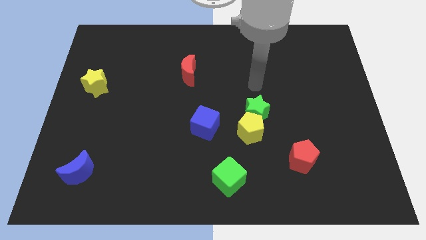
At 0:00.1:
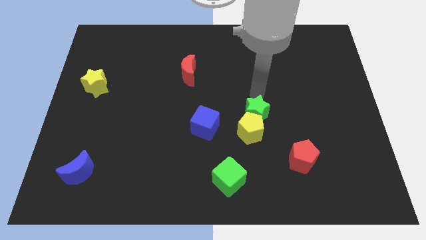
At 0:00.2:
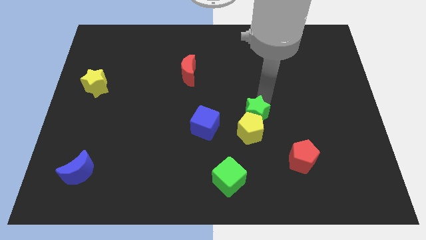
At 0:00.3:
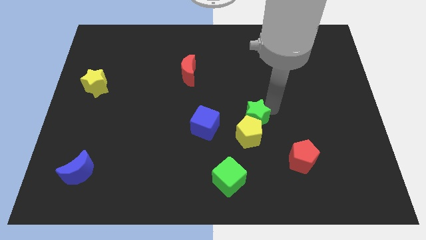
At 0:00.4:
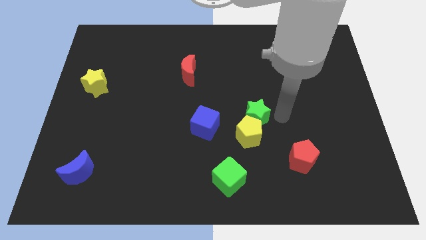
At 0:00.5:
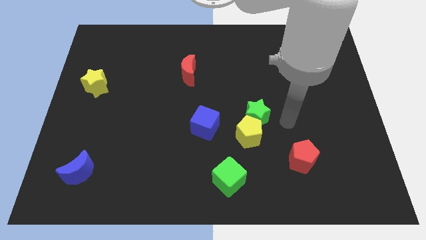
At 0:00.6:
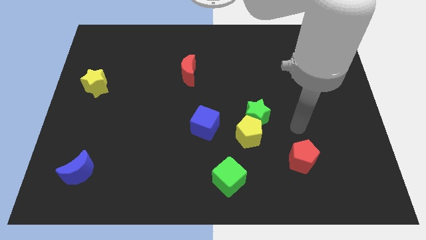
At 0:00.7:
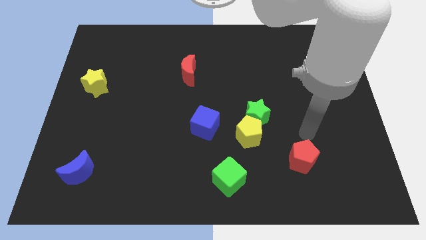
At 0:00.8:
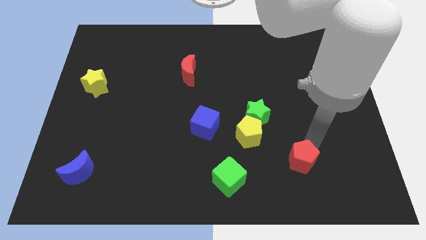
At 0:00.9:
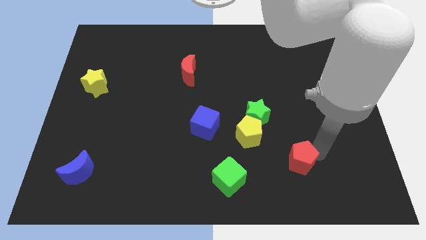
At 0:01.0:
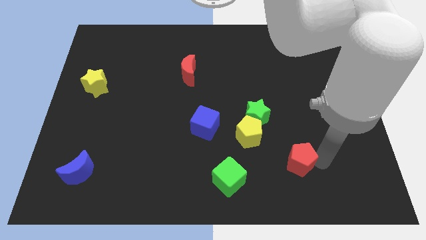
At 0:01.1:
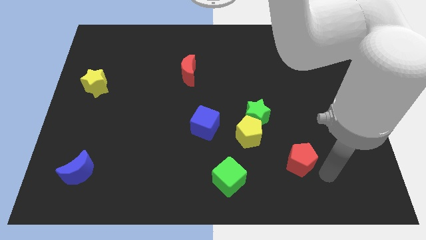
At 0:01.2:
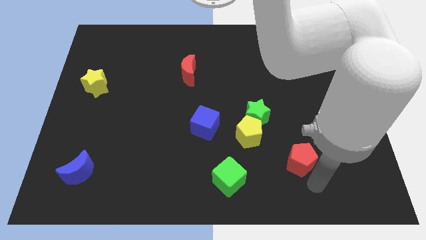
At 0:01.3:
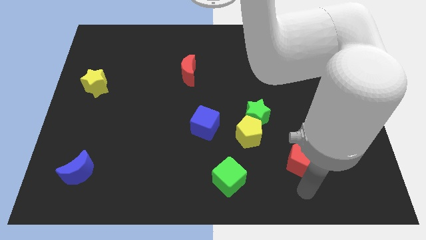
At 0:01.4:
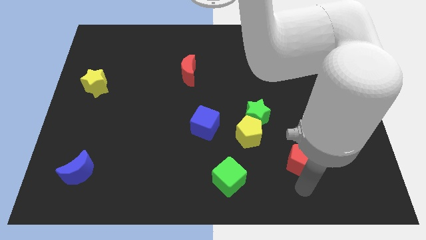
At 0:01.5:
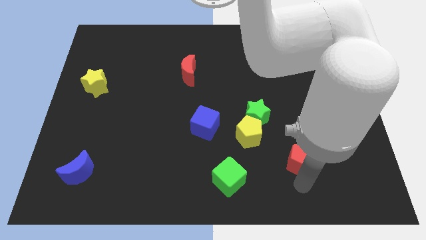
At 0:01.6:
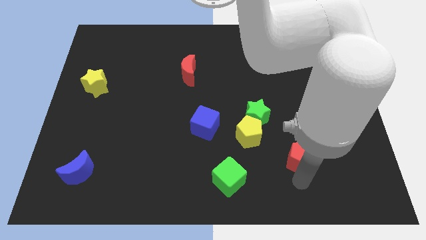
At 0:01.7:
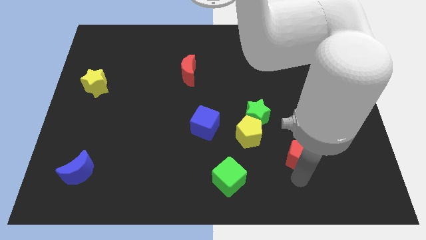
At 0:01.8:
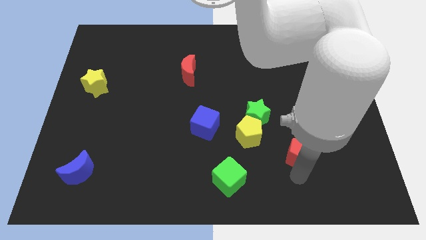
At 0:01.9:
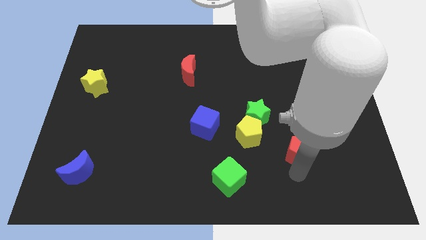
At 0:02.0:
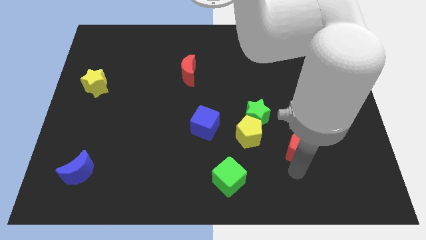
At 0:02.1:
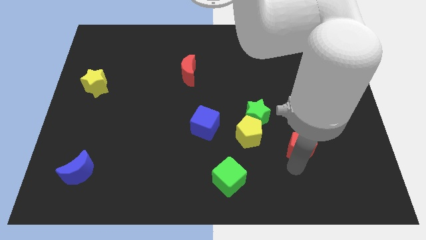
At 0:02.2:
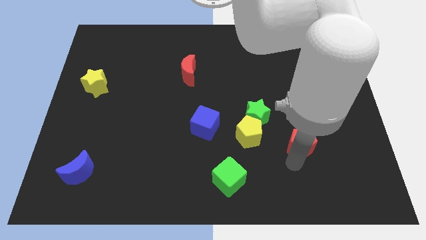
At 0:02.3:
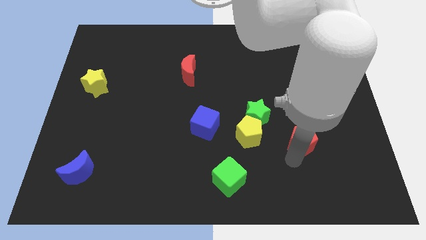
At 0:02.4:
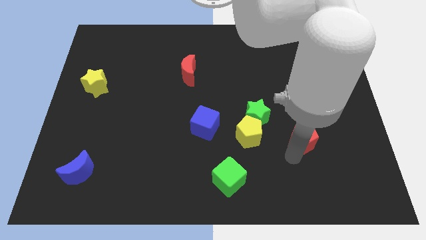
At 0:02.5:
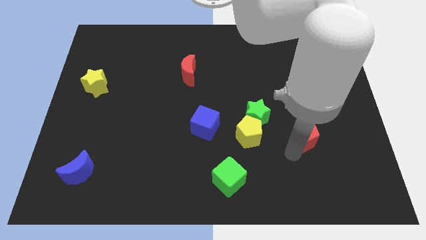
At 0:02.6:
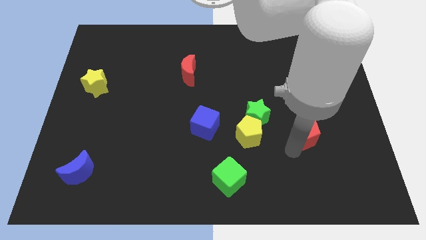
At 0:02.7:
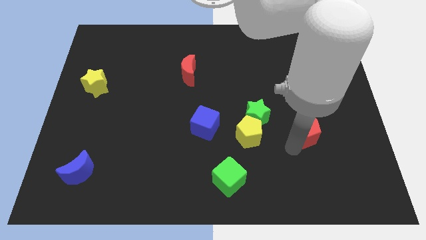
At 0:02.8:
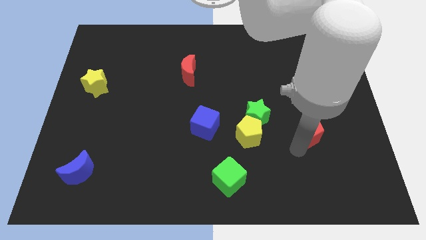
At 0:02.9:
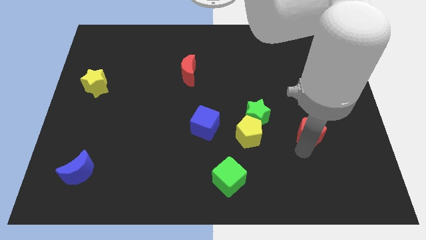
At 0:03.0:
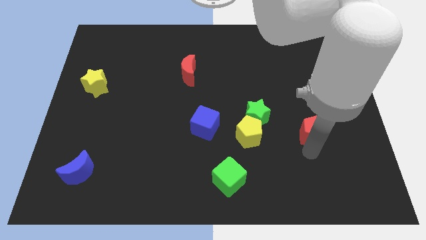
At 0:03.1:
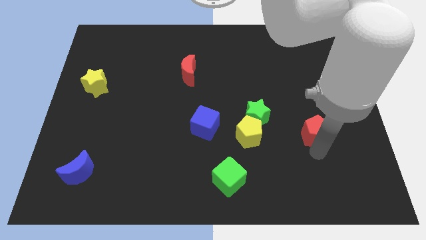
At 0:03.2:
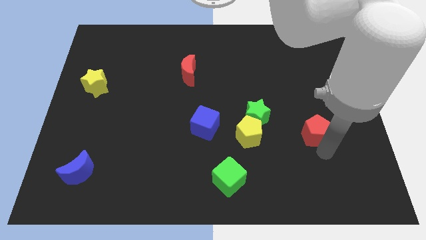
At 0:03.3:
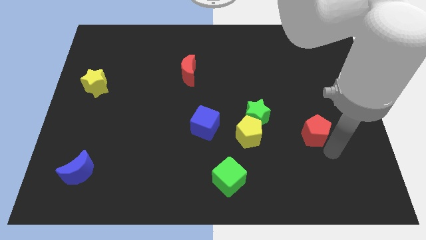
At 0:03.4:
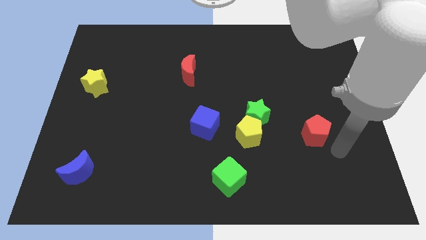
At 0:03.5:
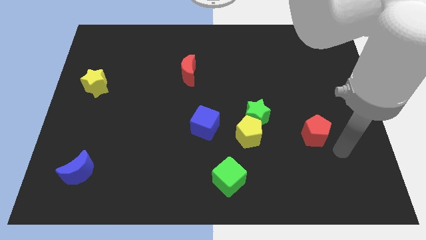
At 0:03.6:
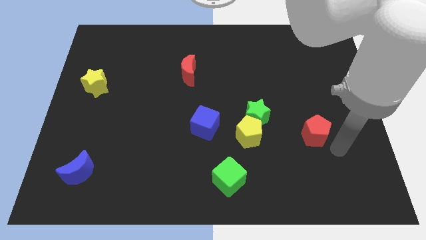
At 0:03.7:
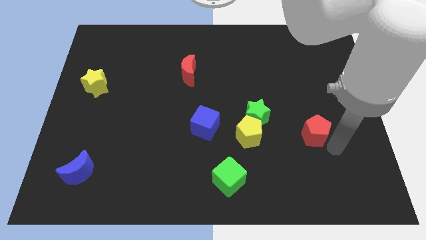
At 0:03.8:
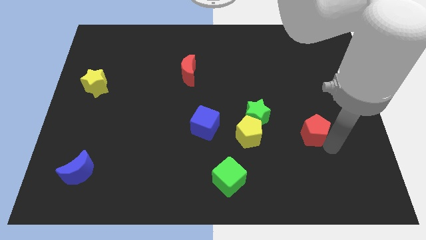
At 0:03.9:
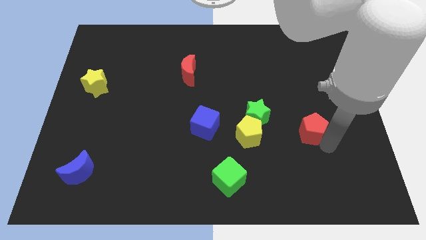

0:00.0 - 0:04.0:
move the red pentagon slightly up

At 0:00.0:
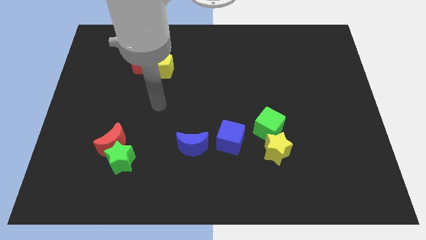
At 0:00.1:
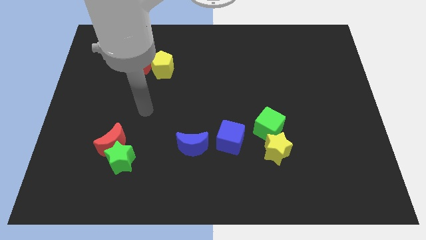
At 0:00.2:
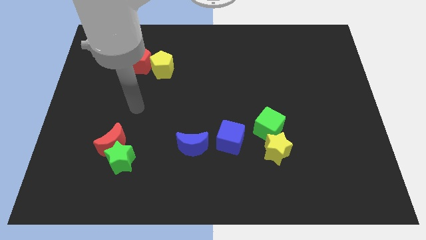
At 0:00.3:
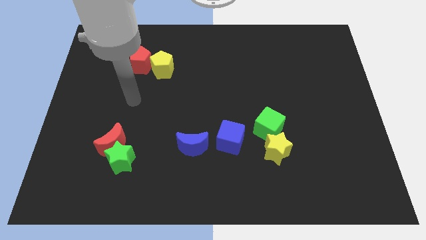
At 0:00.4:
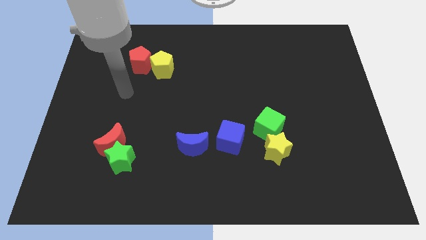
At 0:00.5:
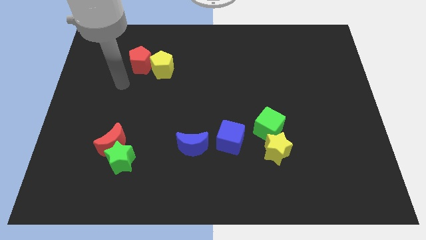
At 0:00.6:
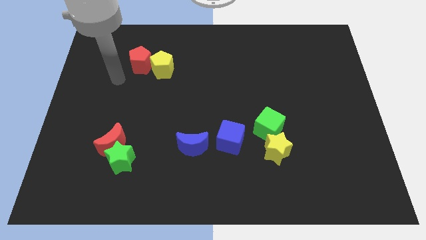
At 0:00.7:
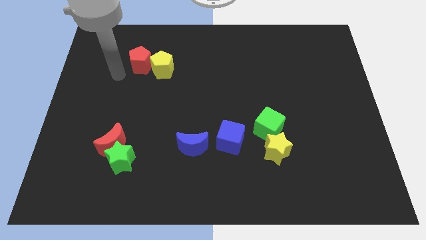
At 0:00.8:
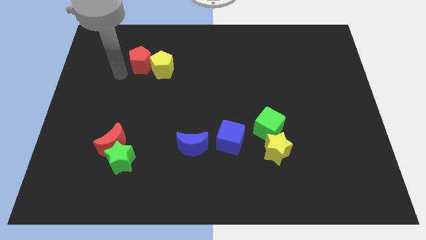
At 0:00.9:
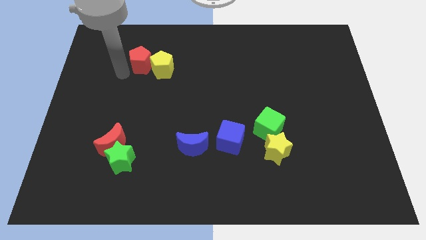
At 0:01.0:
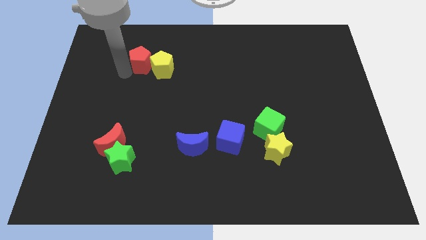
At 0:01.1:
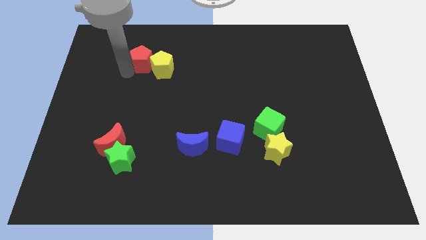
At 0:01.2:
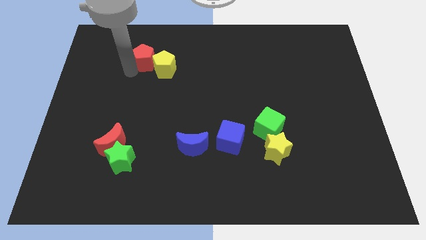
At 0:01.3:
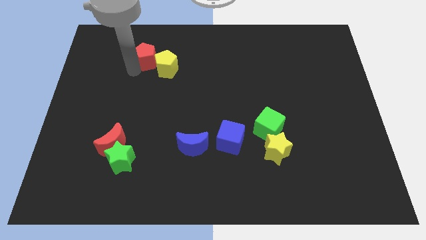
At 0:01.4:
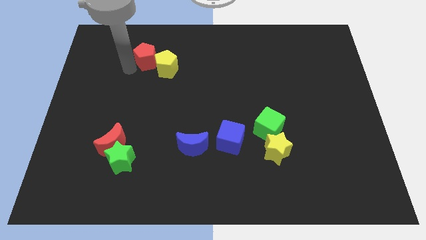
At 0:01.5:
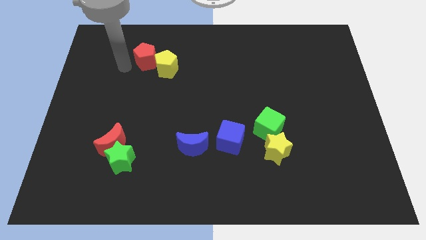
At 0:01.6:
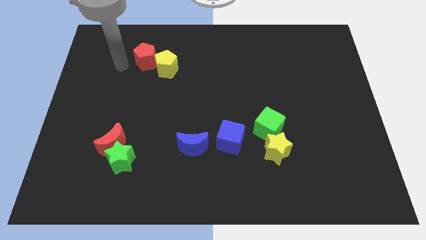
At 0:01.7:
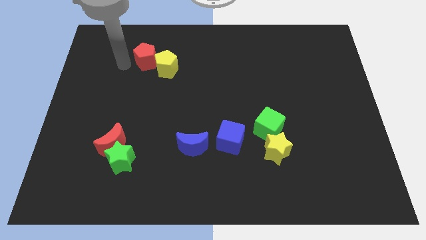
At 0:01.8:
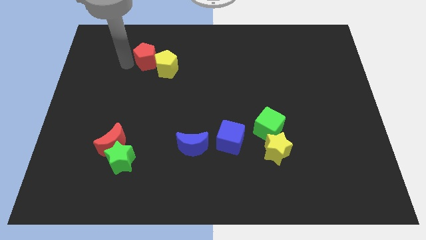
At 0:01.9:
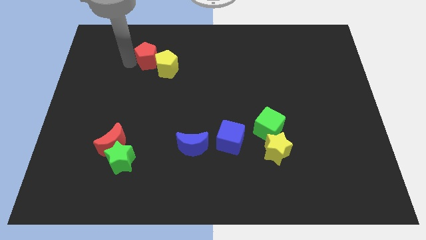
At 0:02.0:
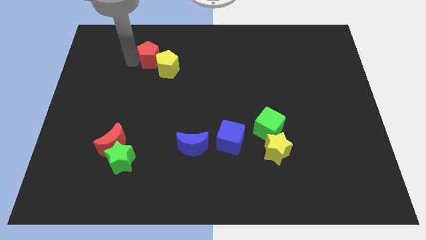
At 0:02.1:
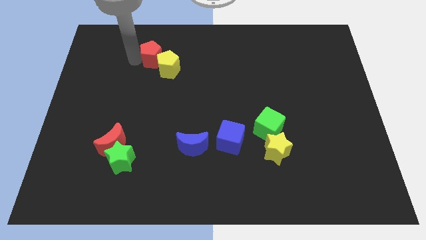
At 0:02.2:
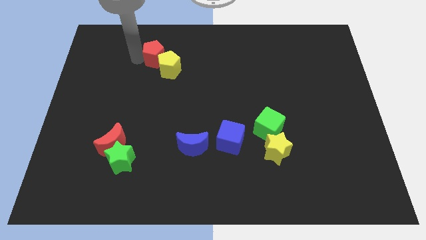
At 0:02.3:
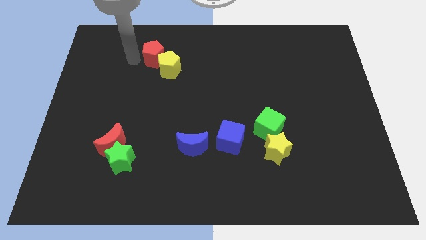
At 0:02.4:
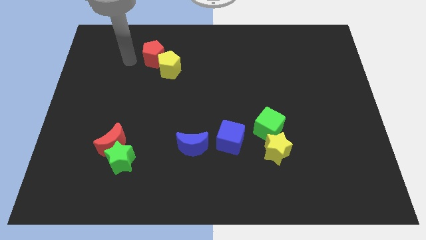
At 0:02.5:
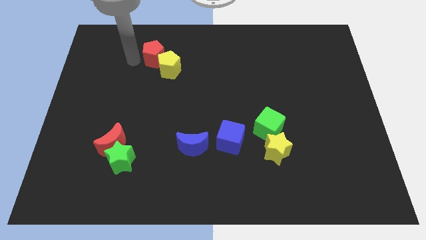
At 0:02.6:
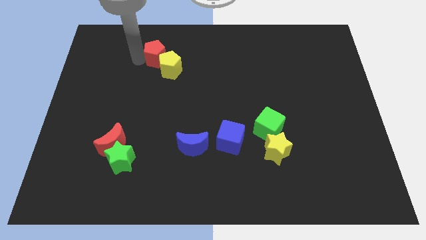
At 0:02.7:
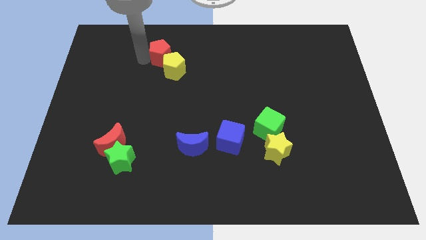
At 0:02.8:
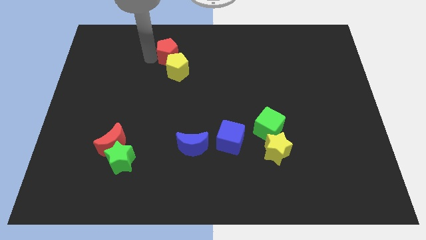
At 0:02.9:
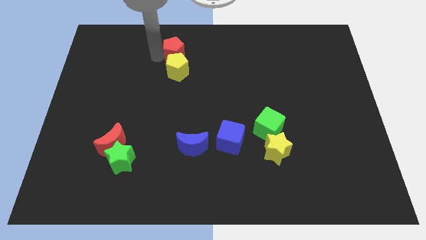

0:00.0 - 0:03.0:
slightly move the red pentagon right

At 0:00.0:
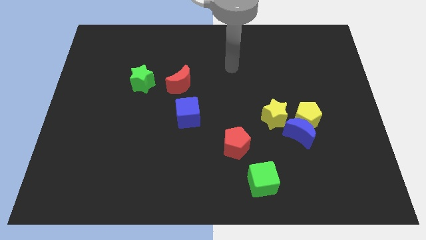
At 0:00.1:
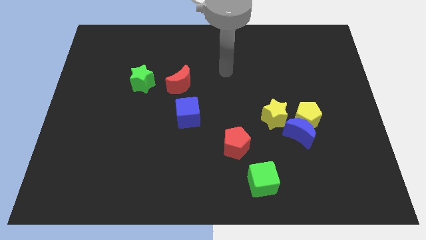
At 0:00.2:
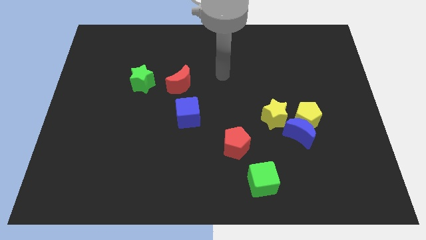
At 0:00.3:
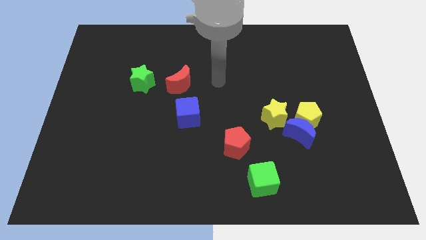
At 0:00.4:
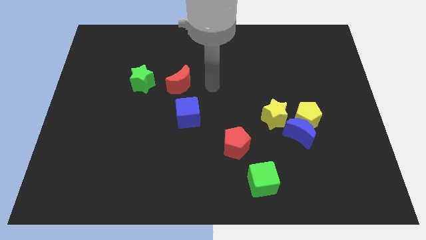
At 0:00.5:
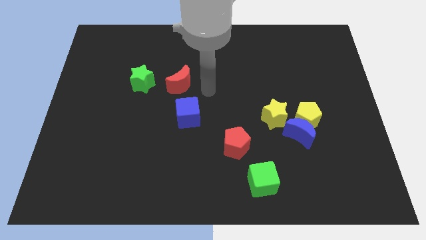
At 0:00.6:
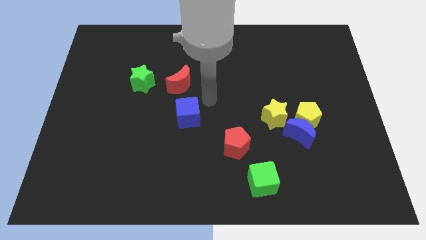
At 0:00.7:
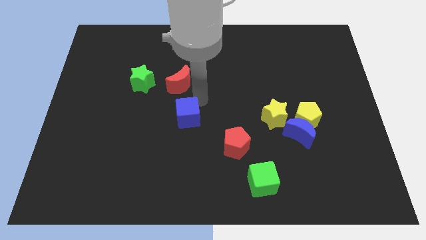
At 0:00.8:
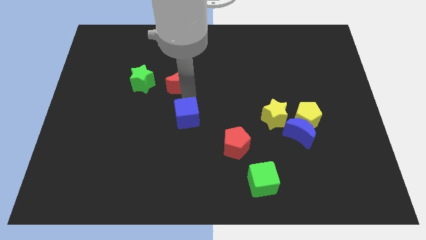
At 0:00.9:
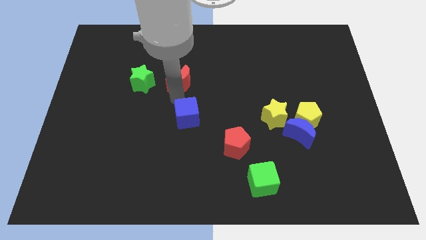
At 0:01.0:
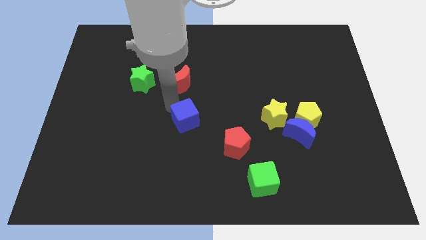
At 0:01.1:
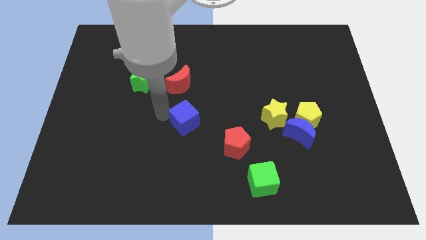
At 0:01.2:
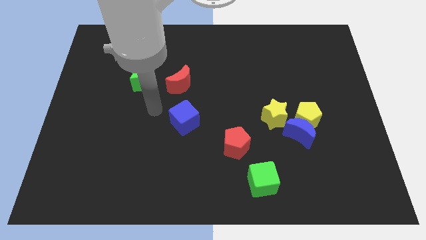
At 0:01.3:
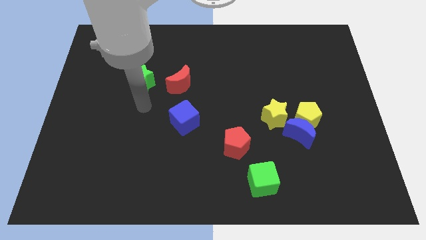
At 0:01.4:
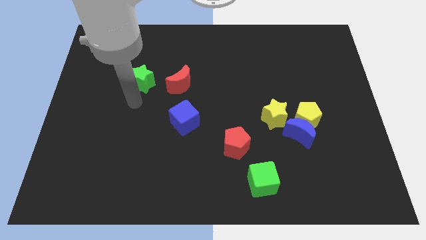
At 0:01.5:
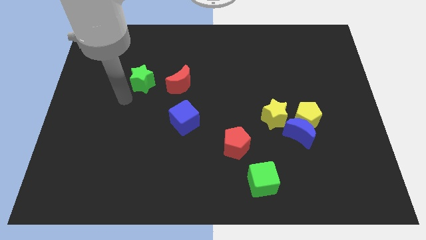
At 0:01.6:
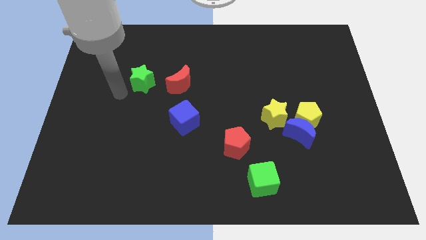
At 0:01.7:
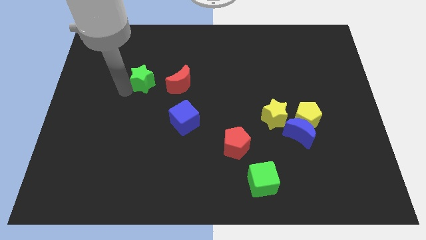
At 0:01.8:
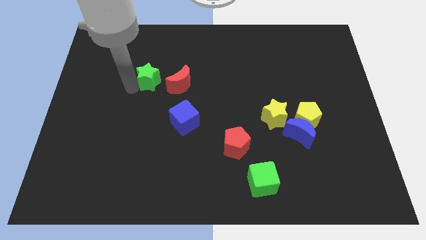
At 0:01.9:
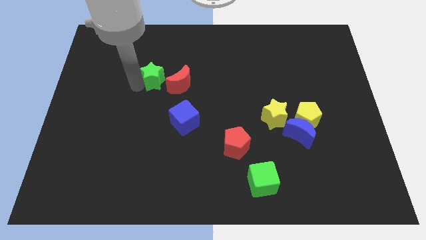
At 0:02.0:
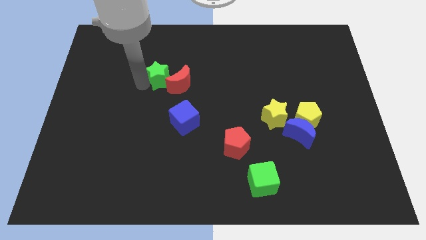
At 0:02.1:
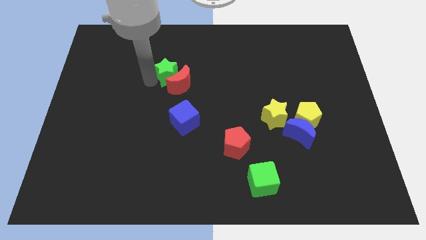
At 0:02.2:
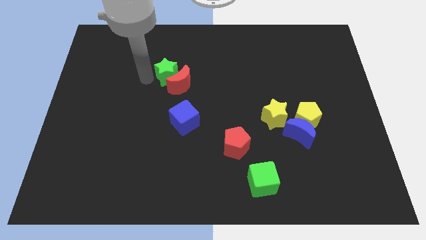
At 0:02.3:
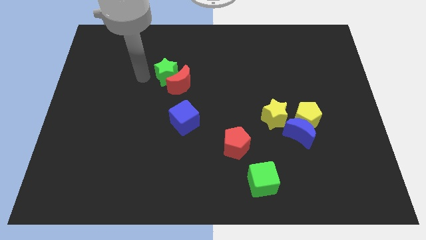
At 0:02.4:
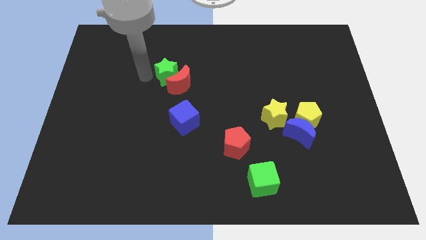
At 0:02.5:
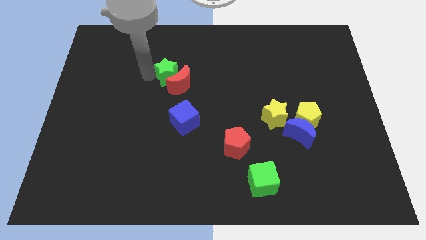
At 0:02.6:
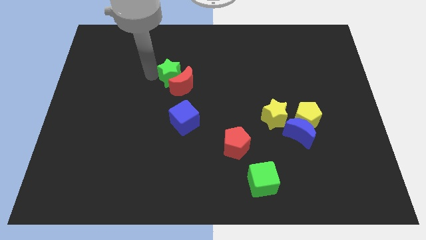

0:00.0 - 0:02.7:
move the green star somewhat to the right
